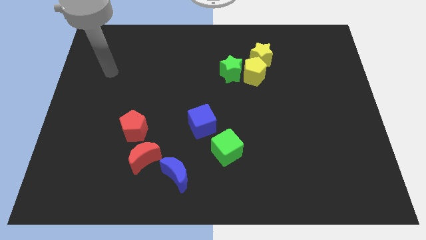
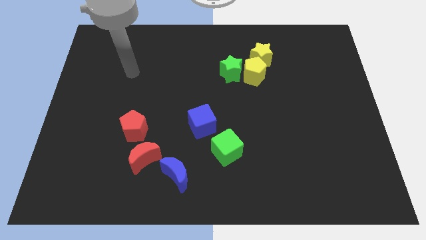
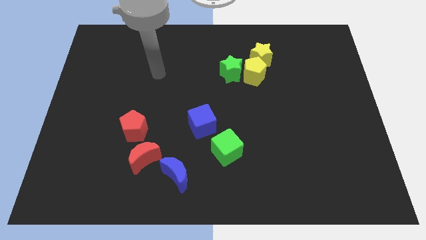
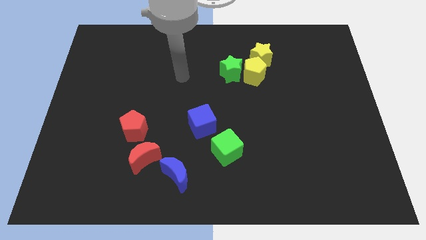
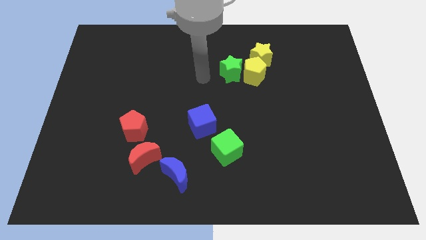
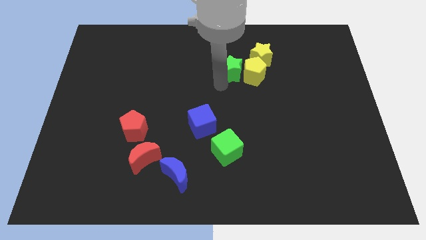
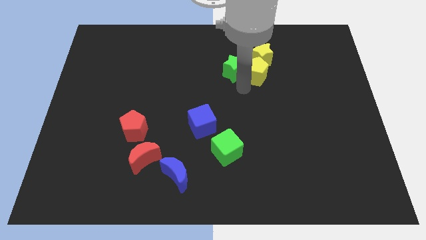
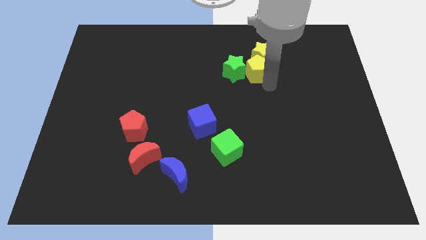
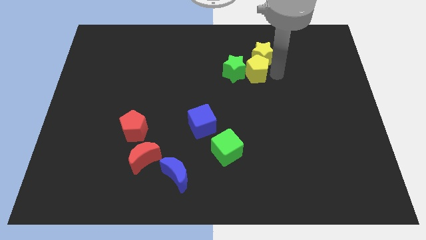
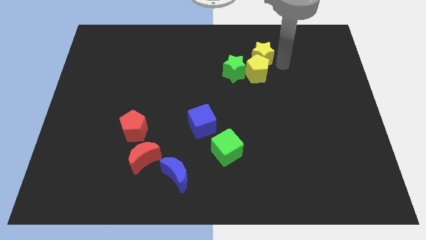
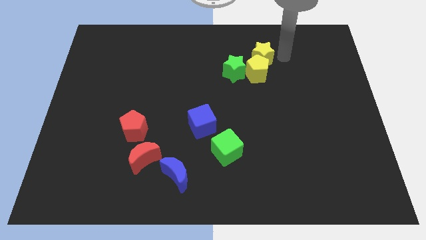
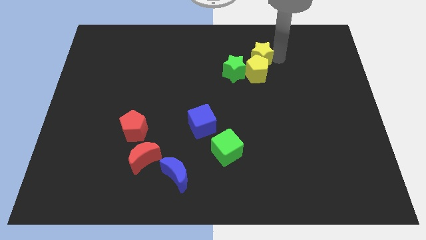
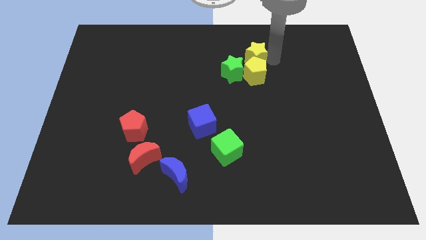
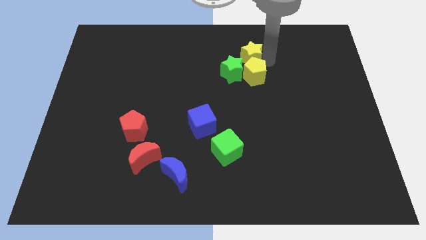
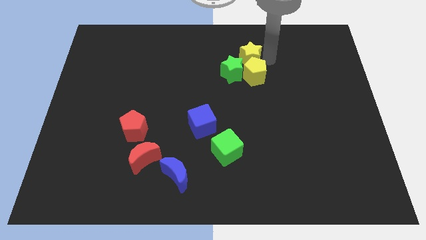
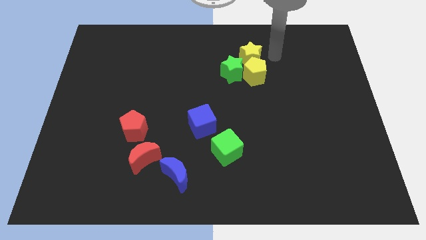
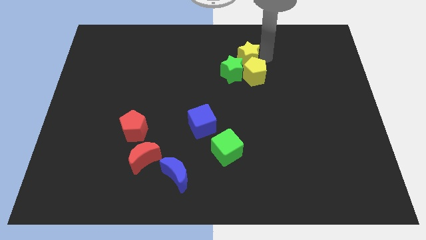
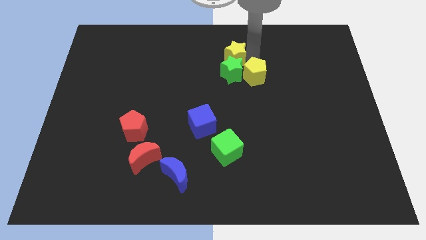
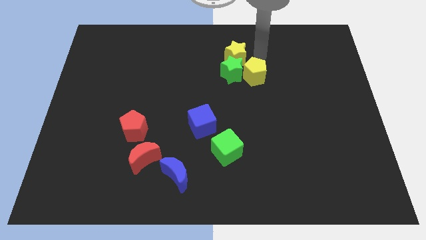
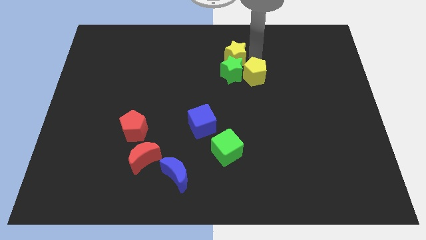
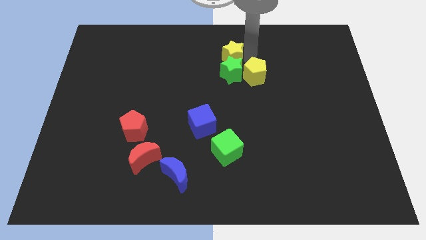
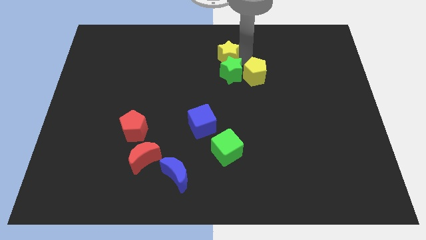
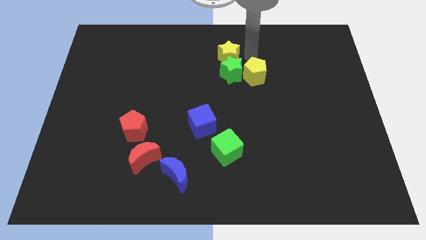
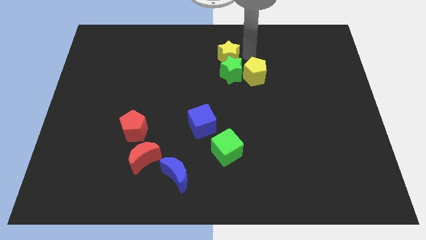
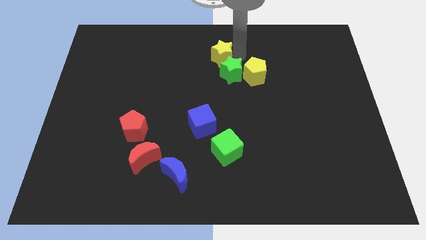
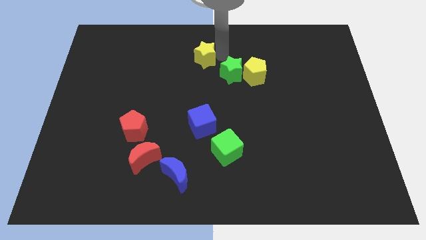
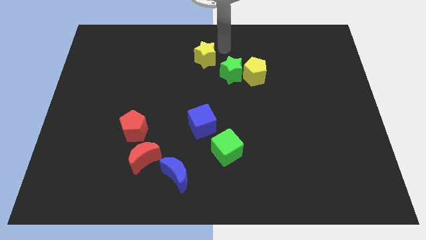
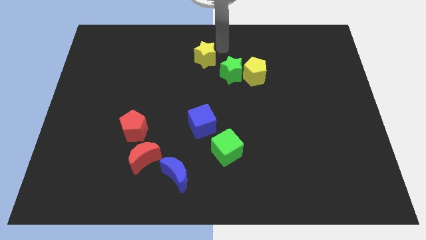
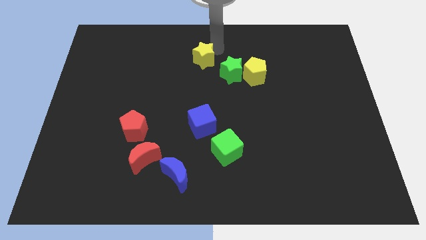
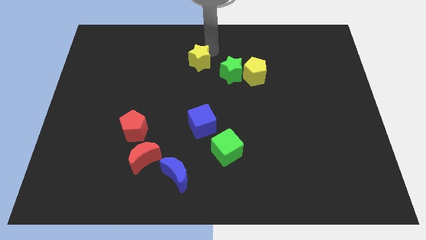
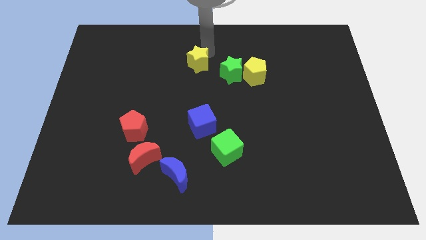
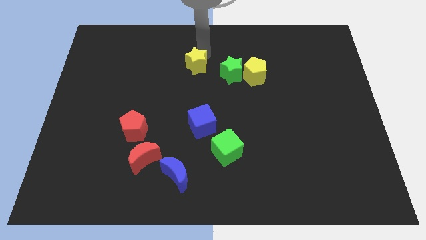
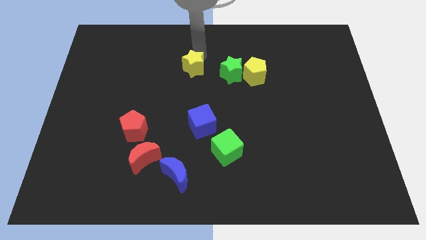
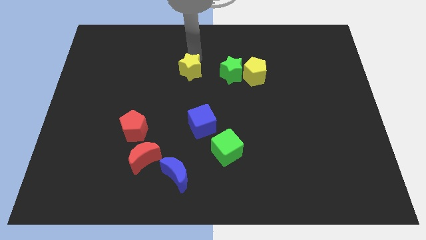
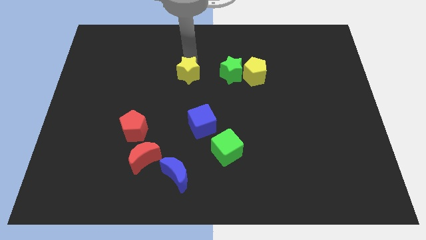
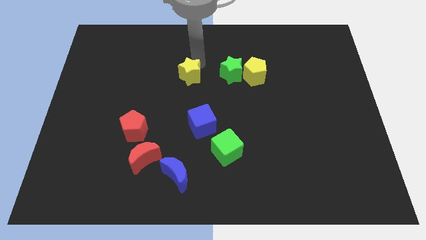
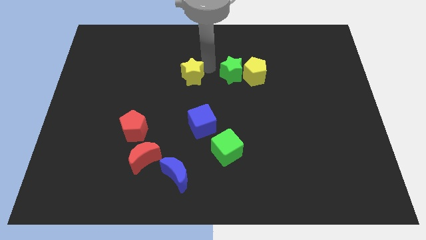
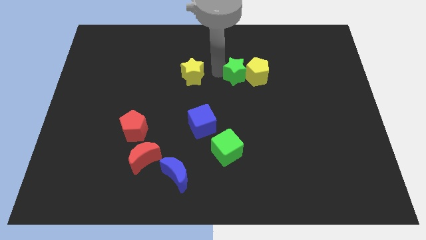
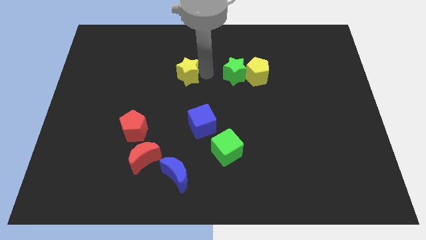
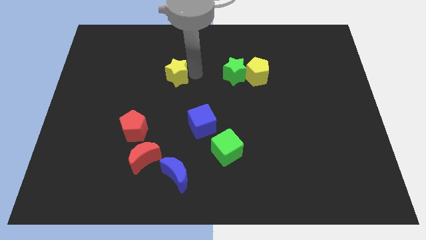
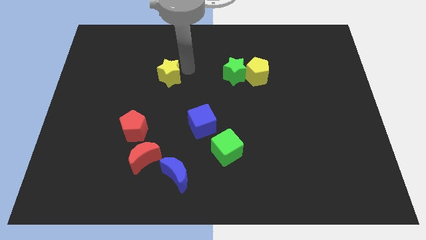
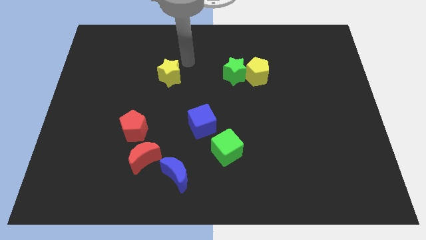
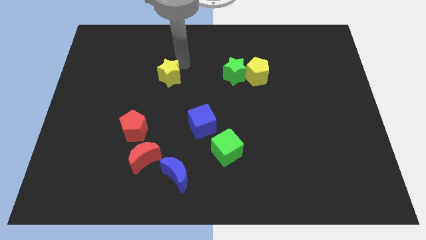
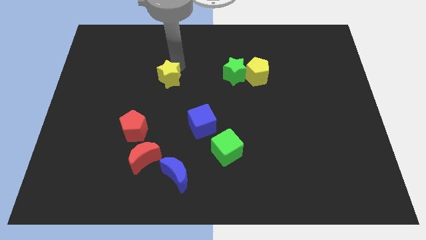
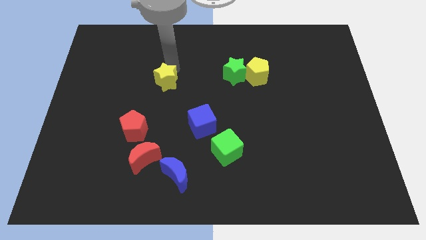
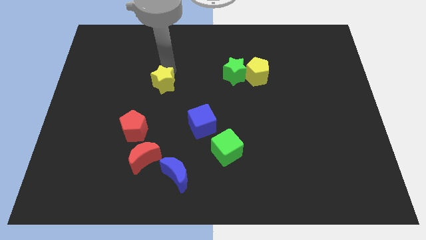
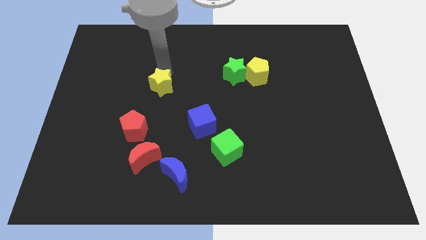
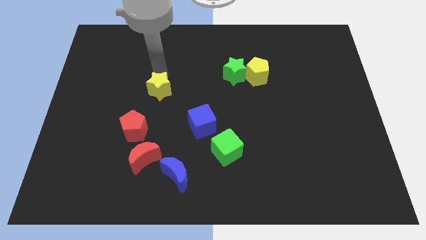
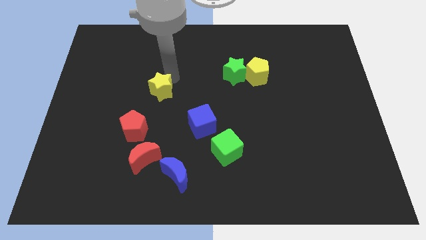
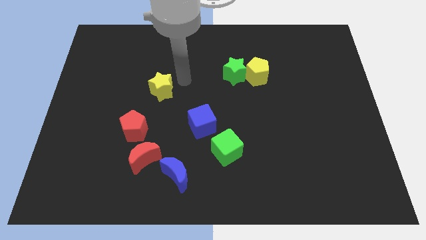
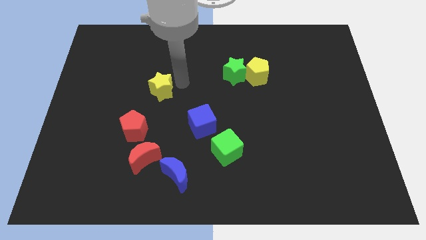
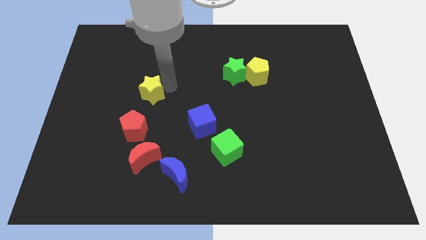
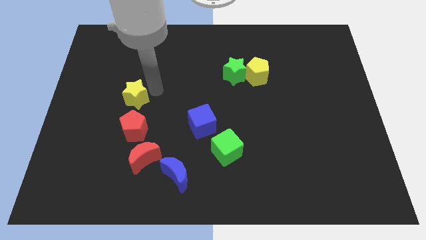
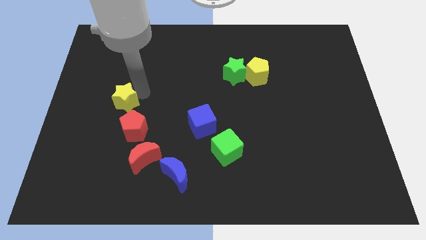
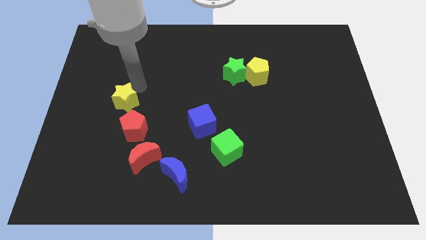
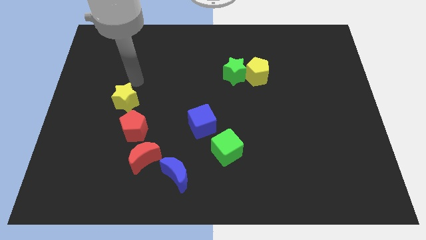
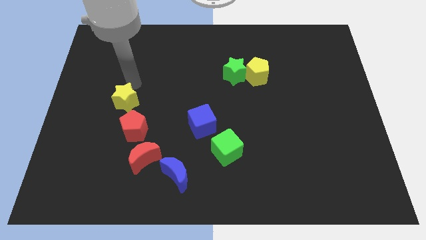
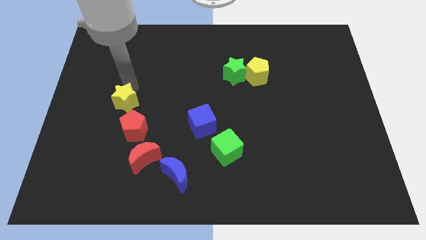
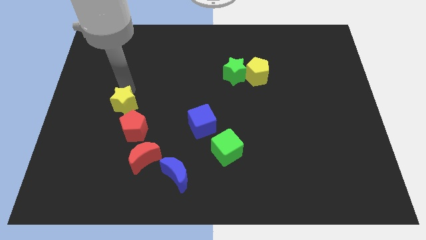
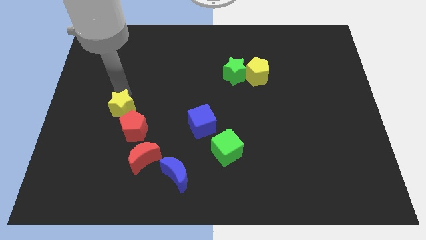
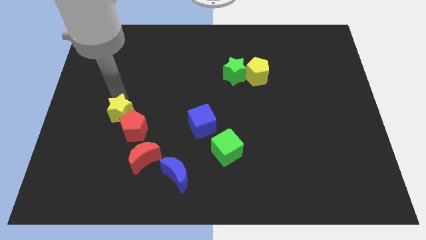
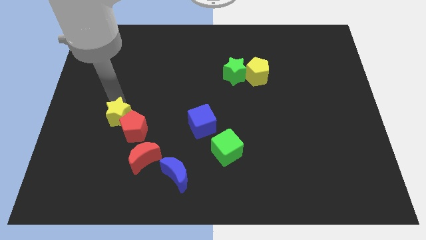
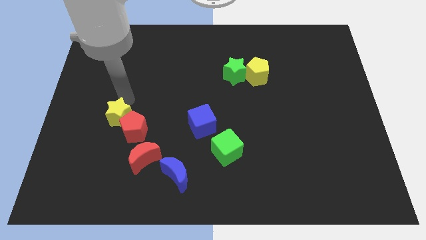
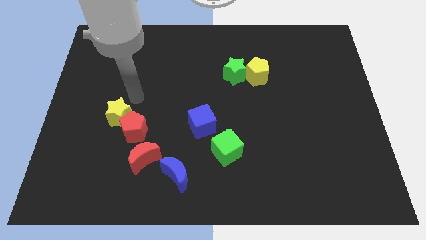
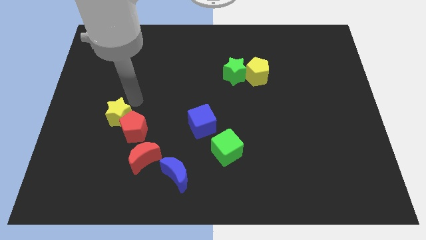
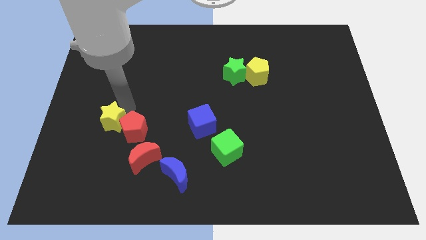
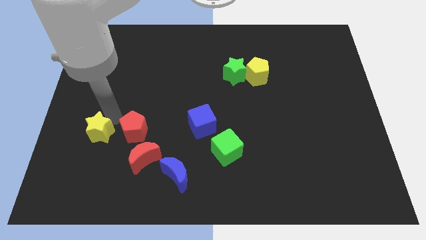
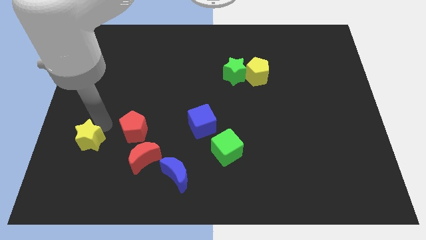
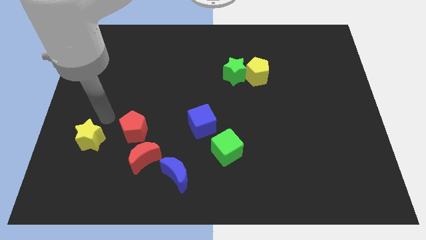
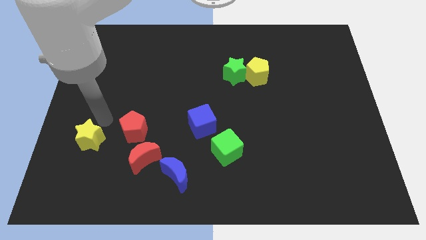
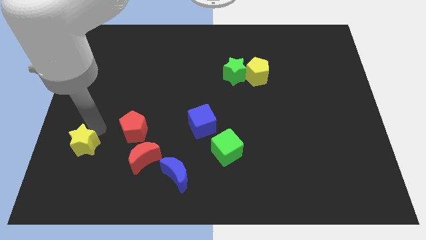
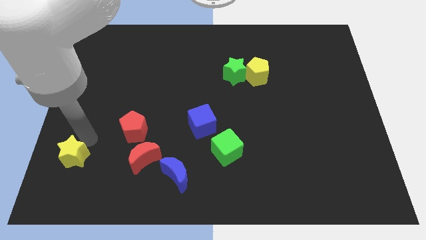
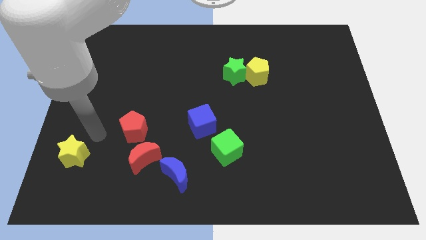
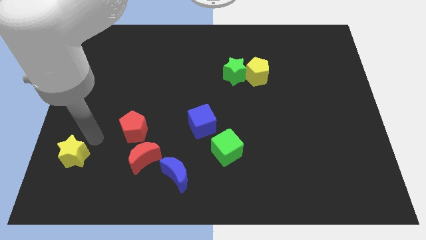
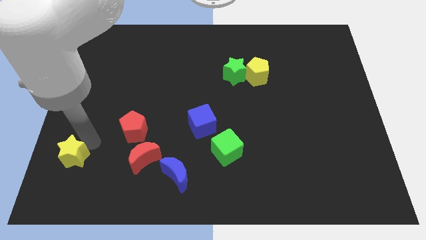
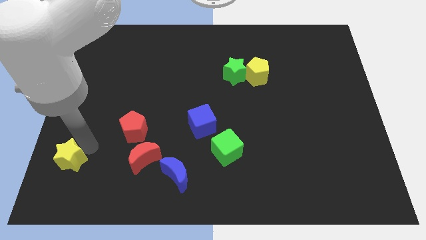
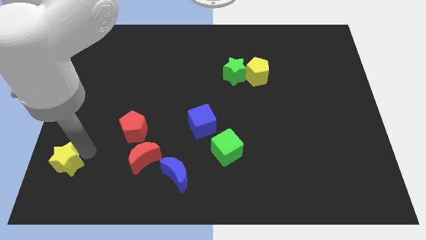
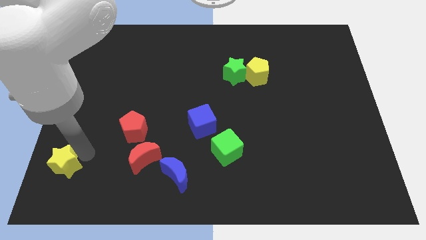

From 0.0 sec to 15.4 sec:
push the yellow star to the bottom left corner
